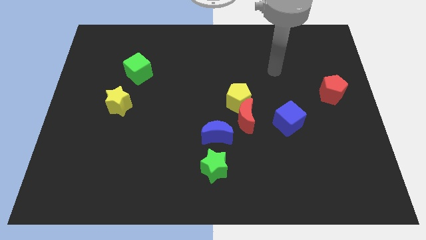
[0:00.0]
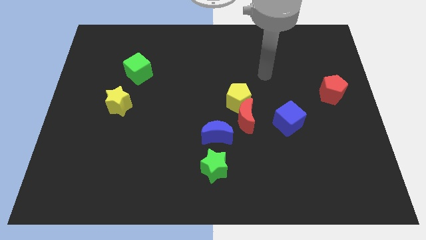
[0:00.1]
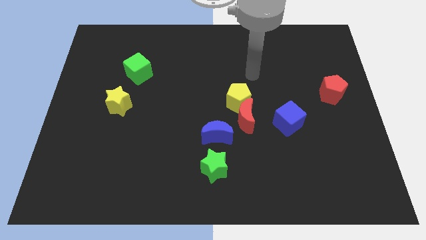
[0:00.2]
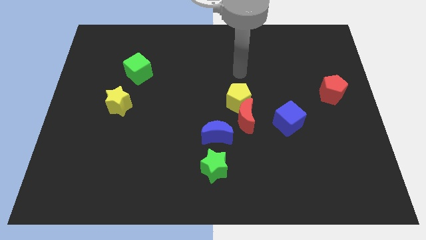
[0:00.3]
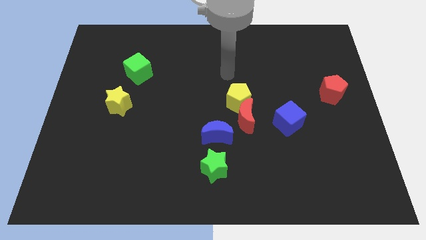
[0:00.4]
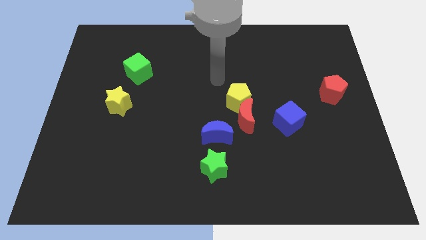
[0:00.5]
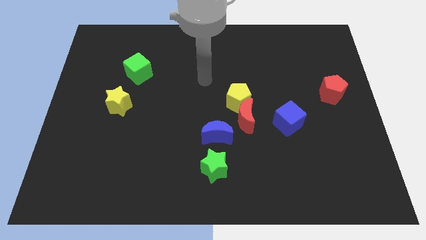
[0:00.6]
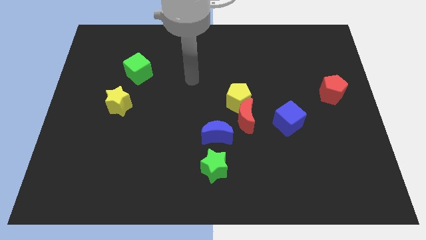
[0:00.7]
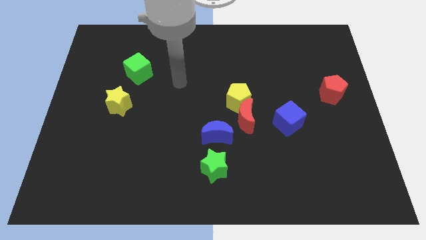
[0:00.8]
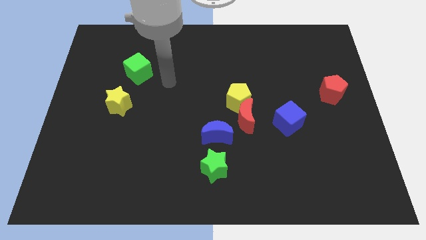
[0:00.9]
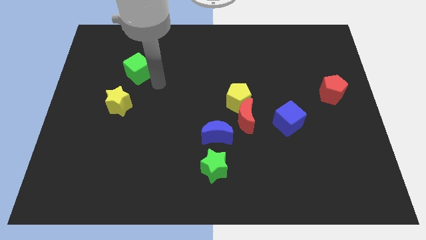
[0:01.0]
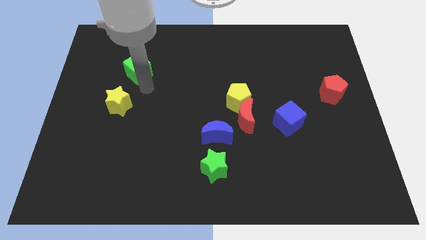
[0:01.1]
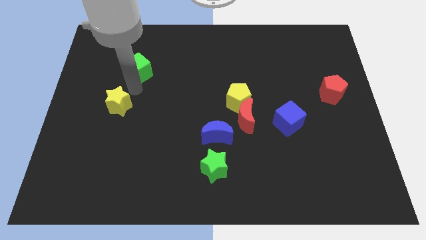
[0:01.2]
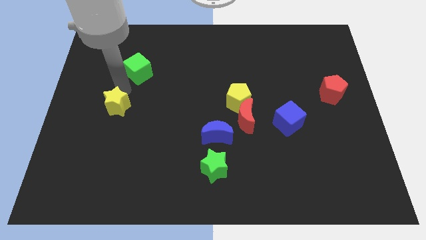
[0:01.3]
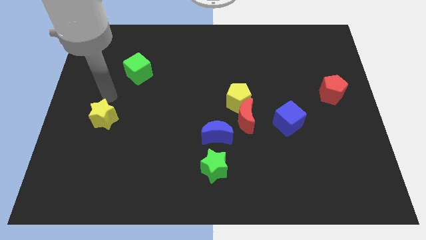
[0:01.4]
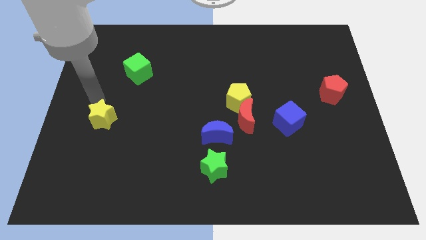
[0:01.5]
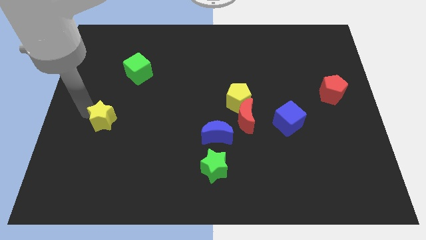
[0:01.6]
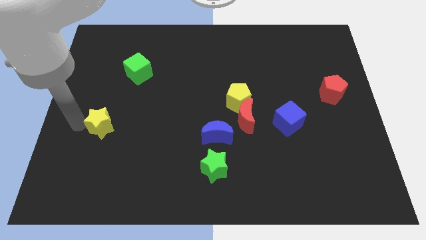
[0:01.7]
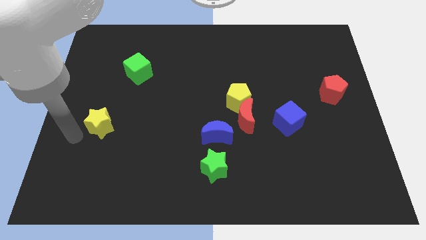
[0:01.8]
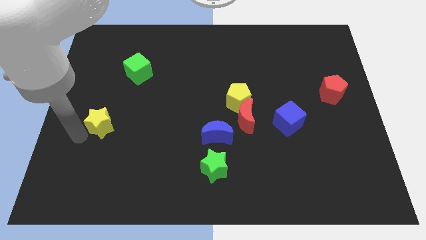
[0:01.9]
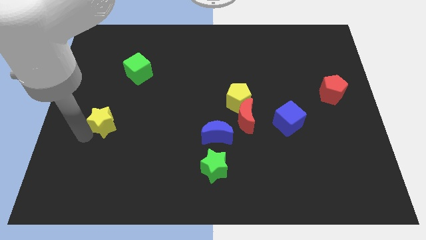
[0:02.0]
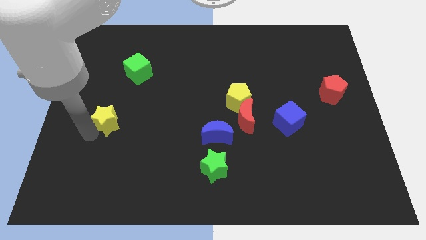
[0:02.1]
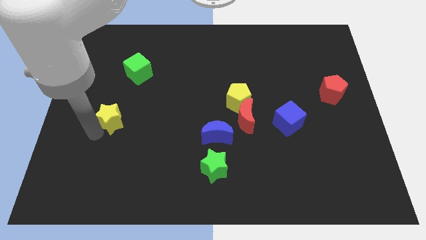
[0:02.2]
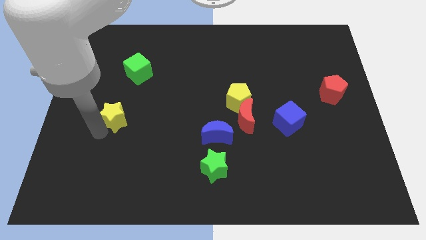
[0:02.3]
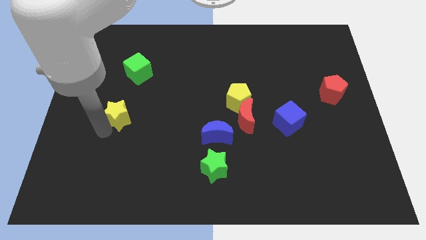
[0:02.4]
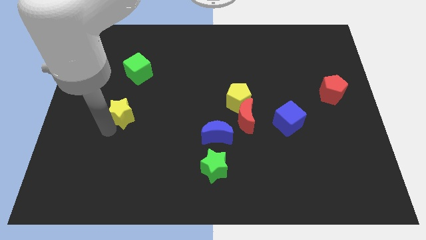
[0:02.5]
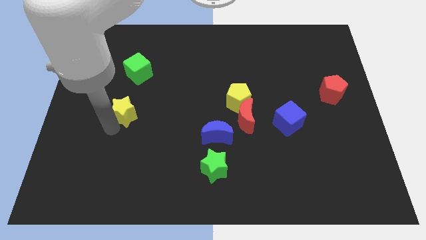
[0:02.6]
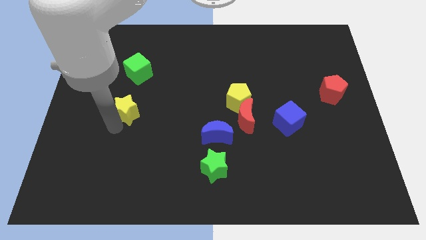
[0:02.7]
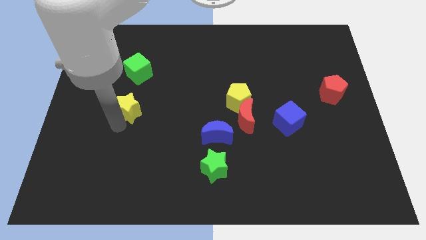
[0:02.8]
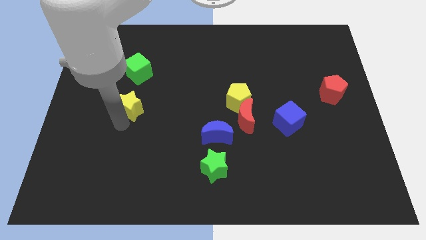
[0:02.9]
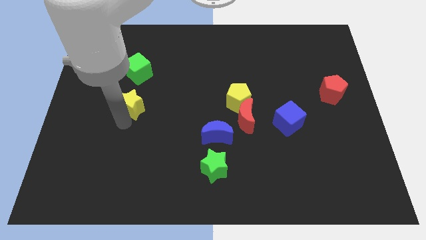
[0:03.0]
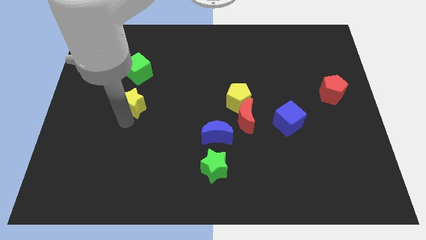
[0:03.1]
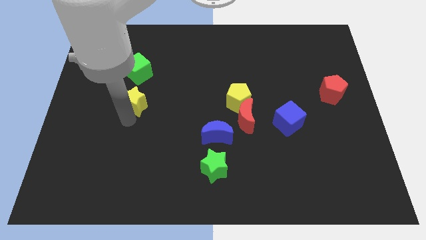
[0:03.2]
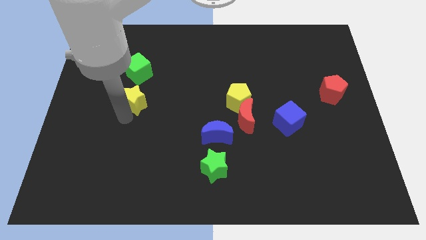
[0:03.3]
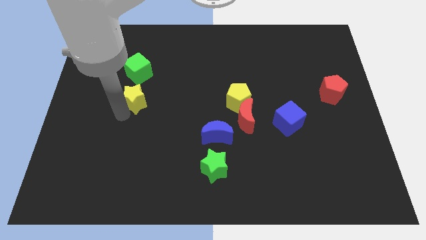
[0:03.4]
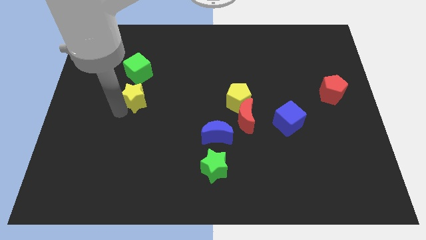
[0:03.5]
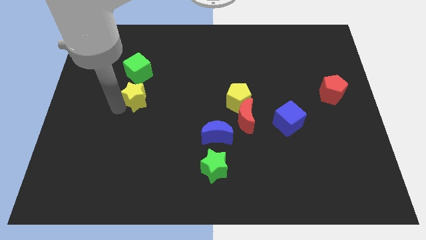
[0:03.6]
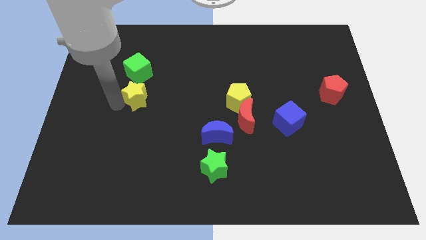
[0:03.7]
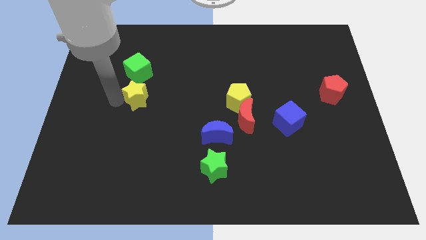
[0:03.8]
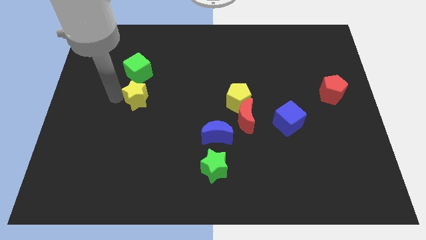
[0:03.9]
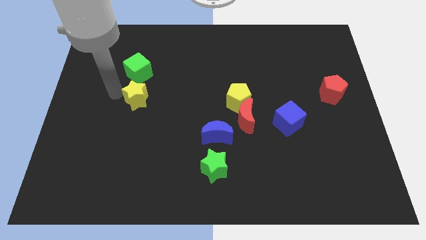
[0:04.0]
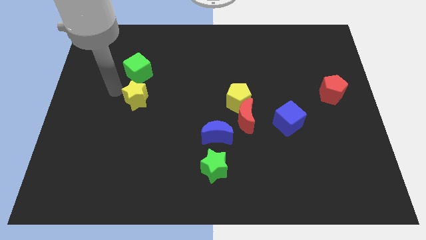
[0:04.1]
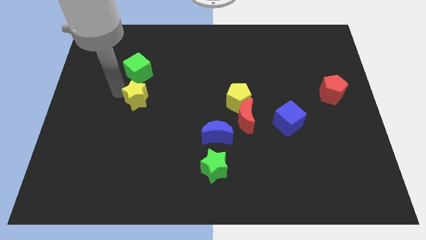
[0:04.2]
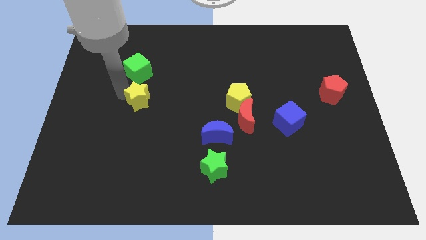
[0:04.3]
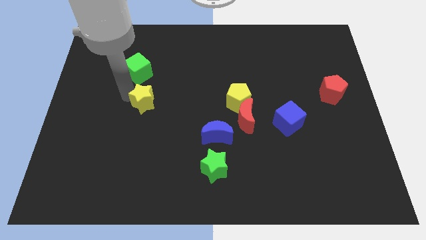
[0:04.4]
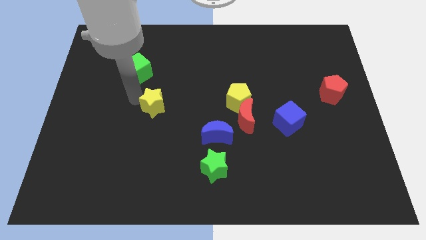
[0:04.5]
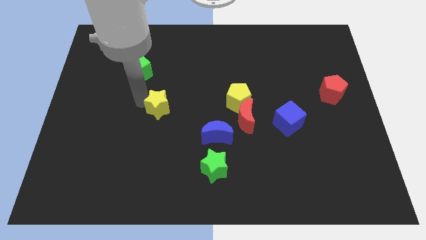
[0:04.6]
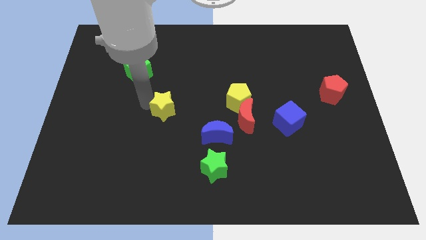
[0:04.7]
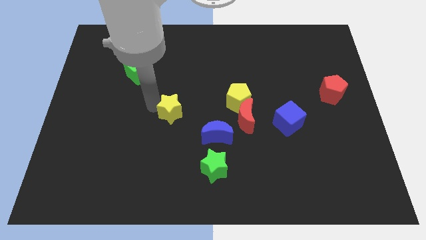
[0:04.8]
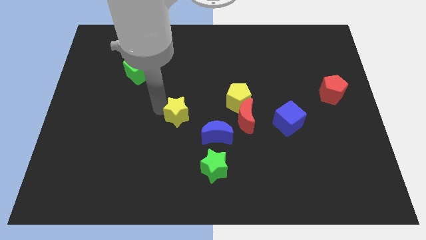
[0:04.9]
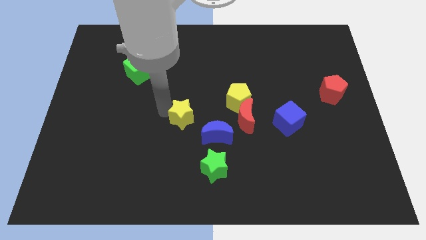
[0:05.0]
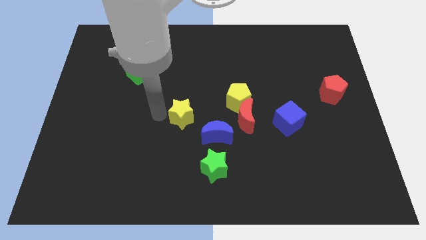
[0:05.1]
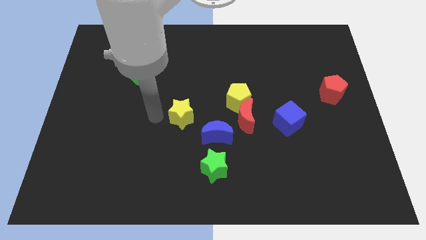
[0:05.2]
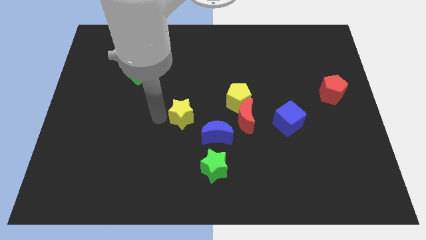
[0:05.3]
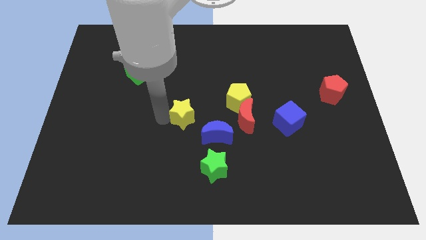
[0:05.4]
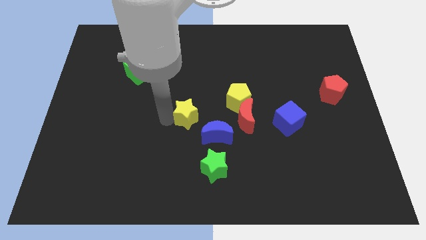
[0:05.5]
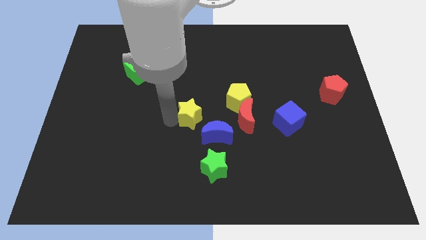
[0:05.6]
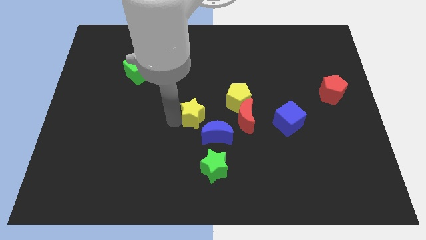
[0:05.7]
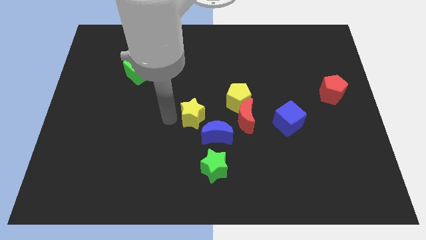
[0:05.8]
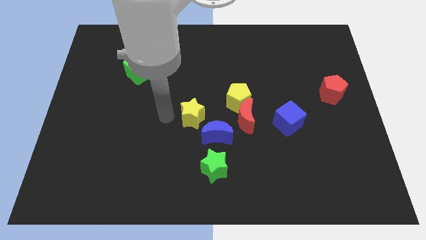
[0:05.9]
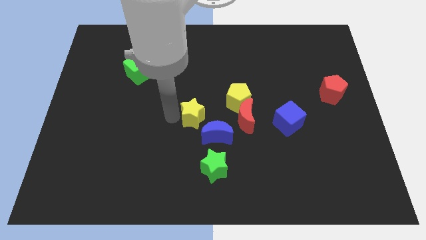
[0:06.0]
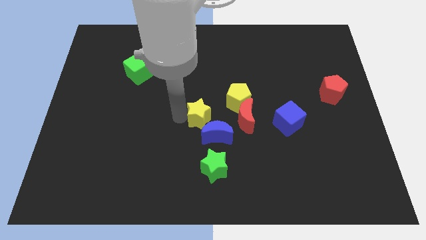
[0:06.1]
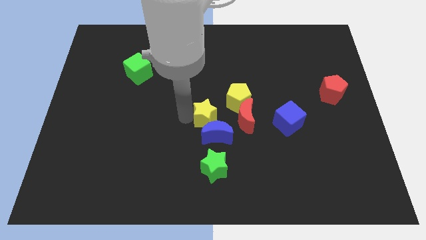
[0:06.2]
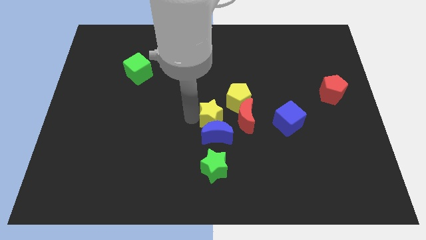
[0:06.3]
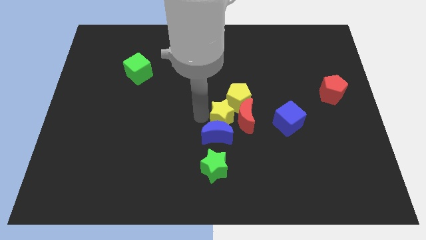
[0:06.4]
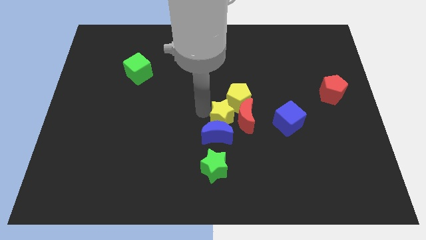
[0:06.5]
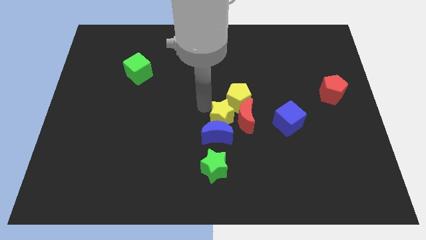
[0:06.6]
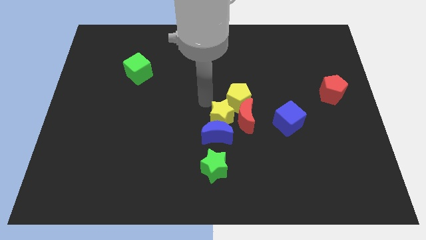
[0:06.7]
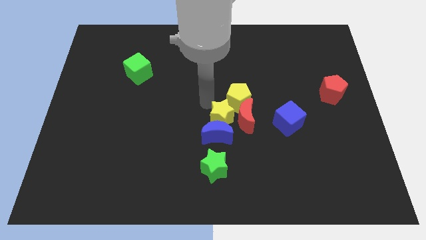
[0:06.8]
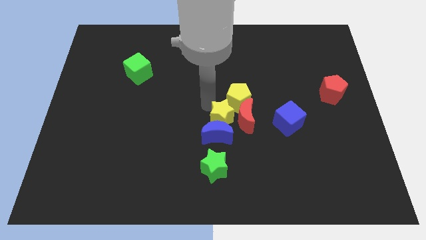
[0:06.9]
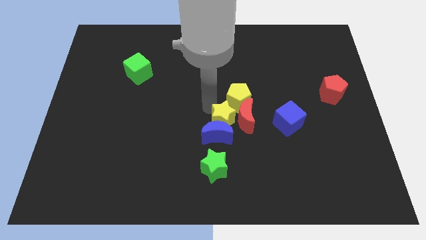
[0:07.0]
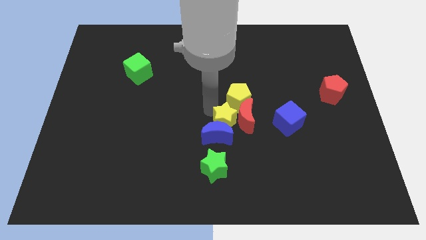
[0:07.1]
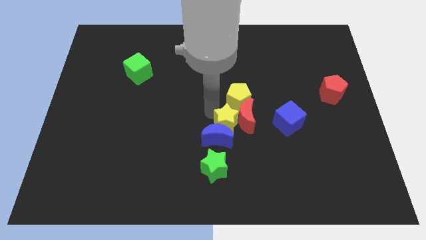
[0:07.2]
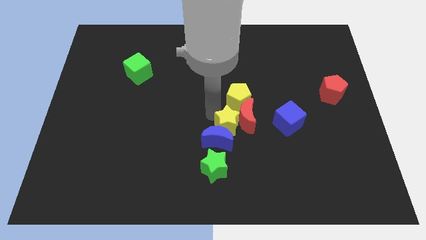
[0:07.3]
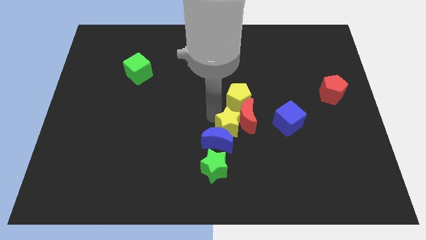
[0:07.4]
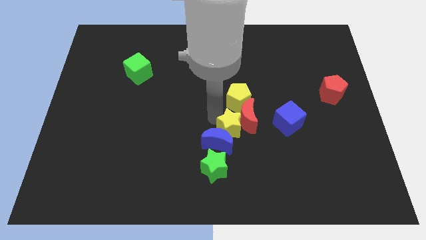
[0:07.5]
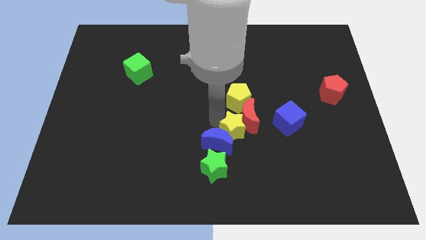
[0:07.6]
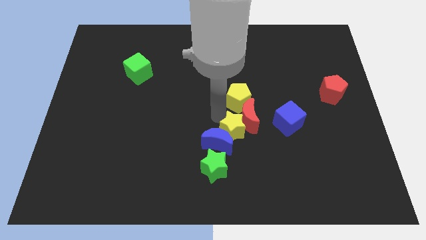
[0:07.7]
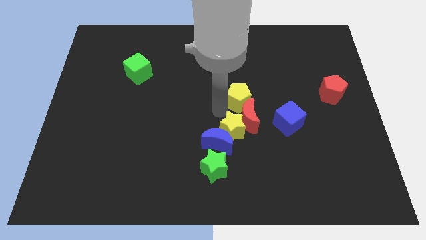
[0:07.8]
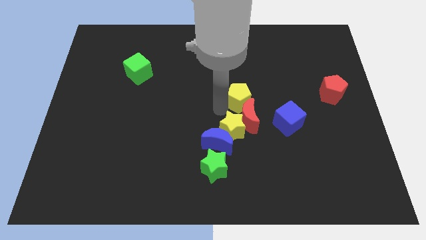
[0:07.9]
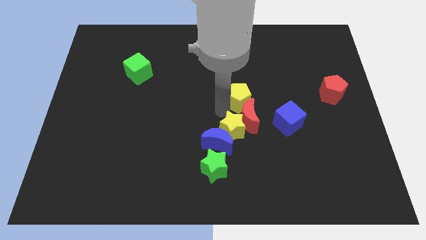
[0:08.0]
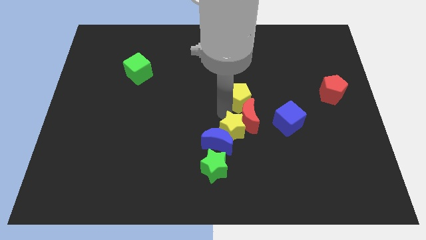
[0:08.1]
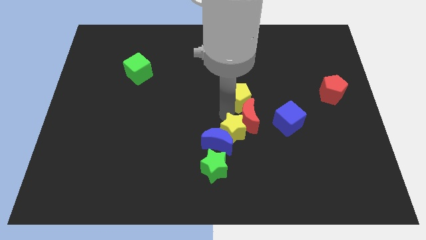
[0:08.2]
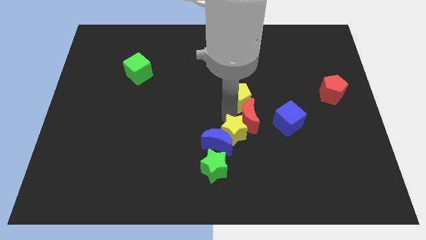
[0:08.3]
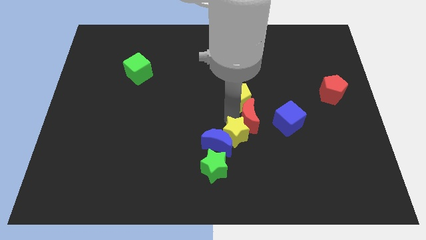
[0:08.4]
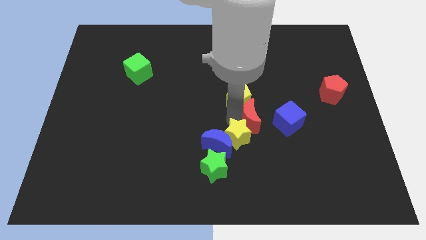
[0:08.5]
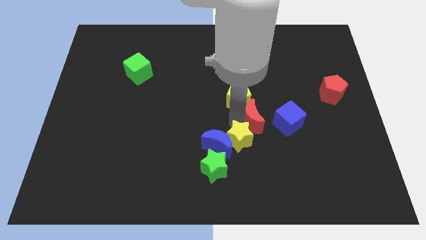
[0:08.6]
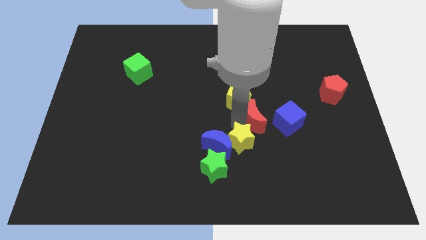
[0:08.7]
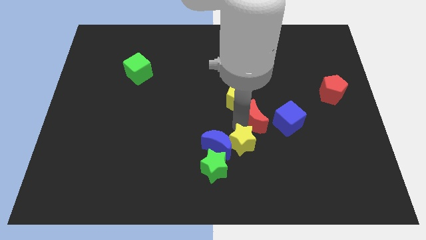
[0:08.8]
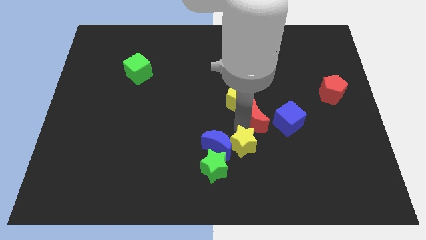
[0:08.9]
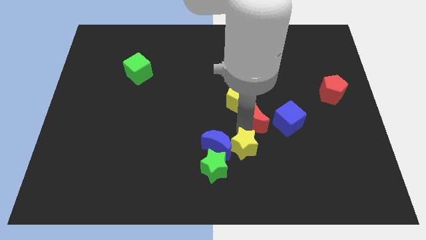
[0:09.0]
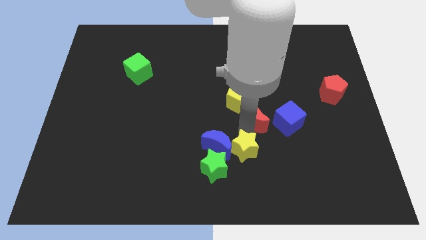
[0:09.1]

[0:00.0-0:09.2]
put the yellow star right of the green star
